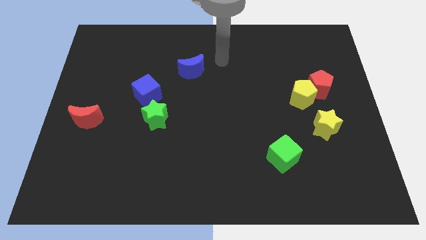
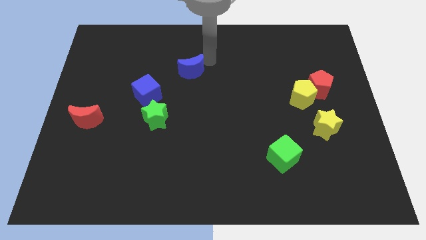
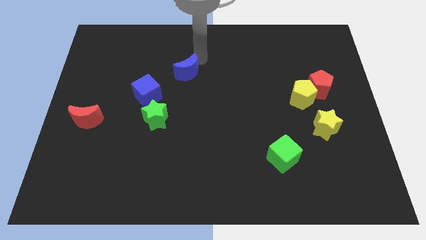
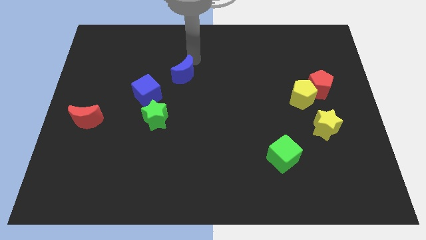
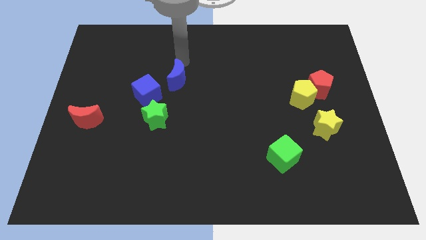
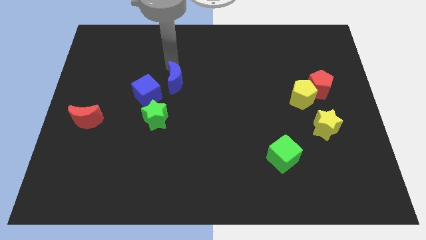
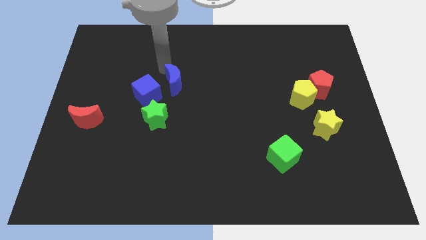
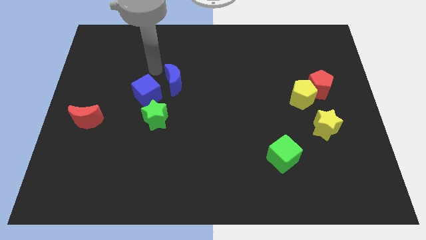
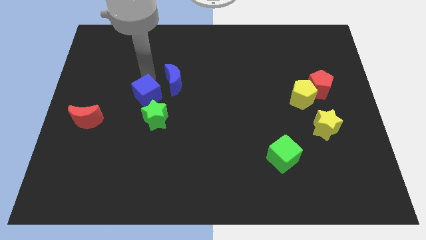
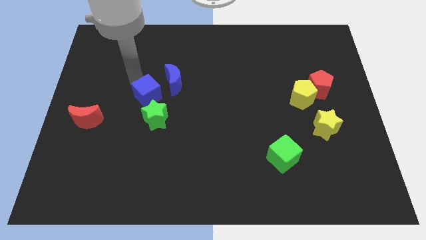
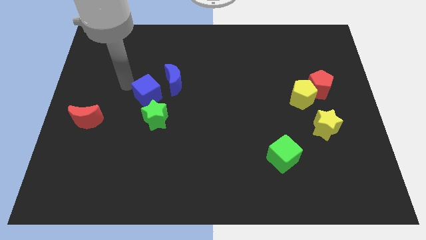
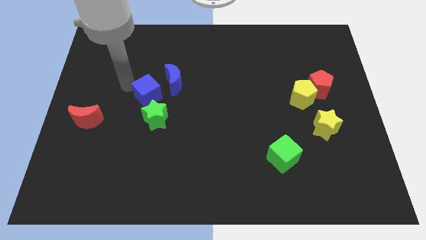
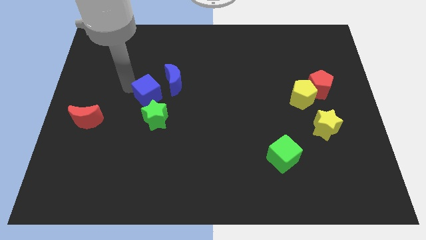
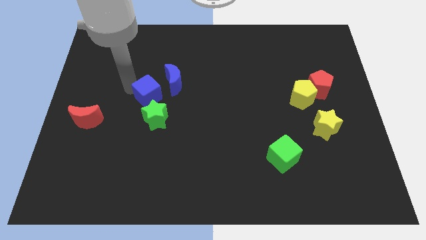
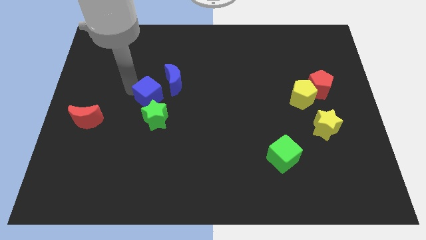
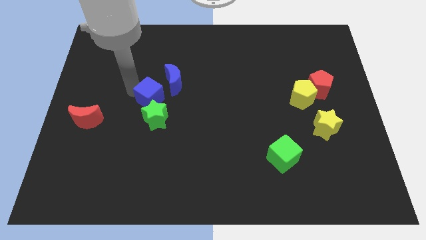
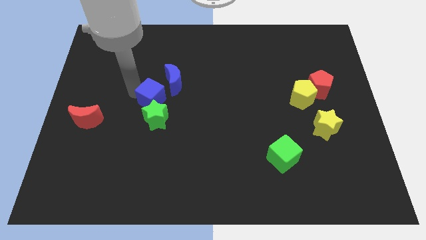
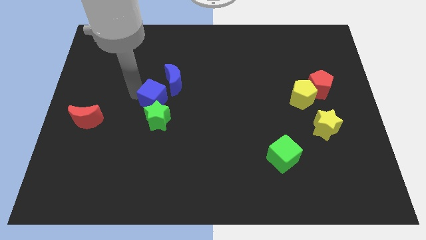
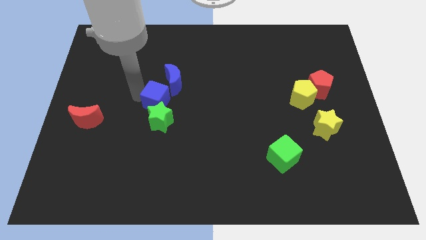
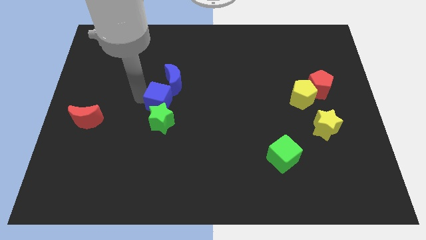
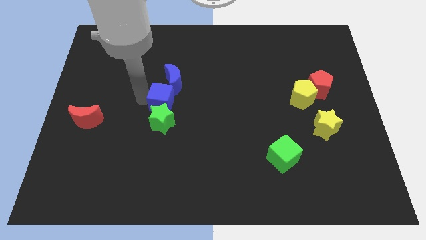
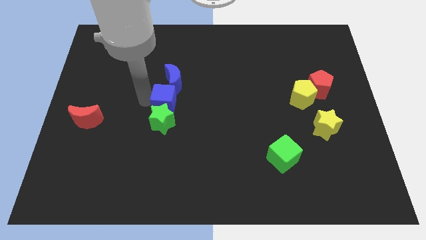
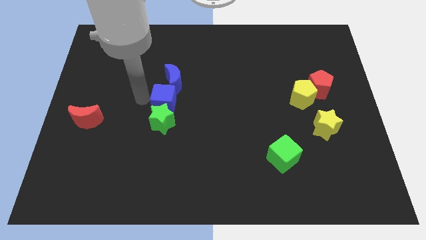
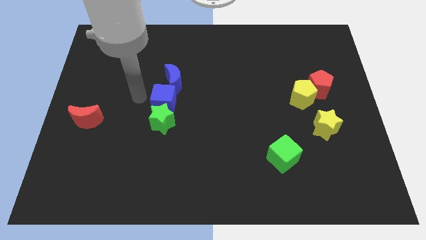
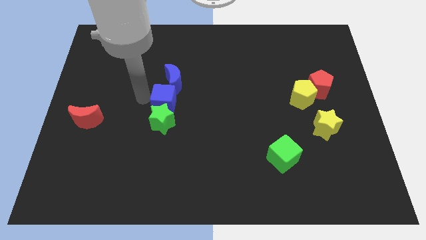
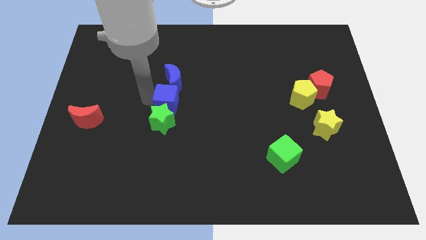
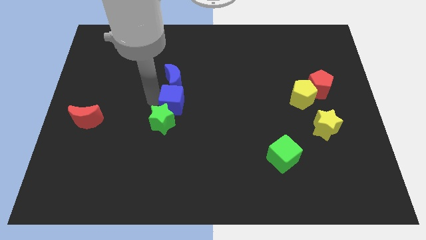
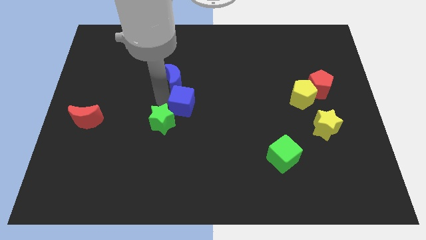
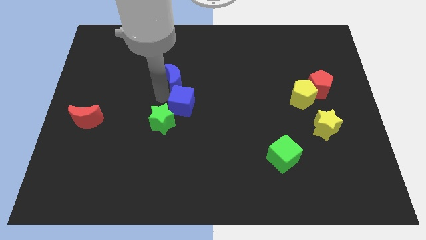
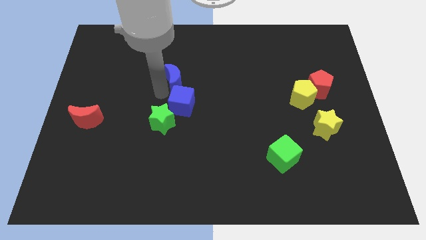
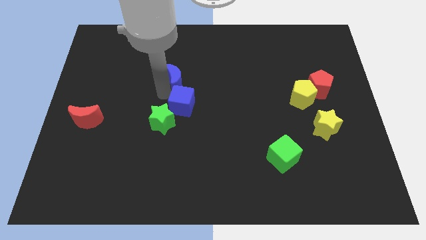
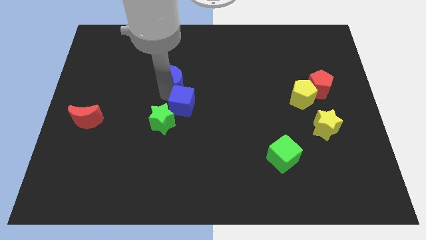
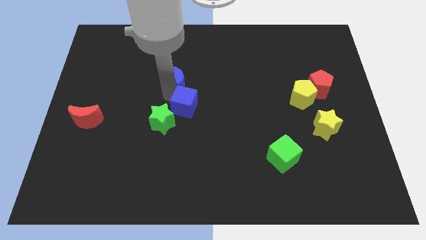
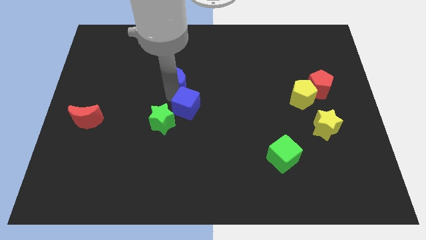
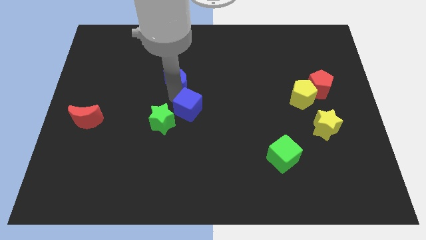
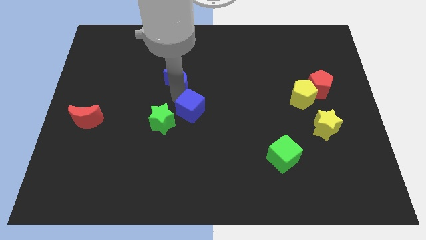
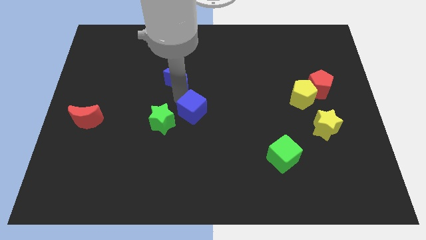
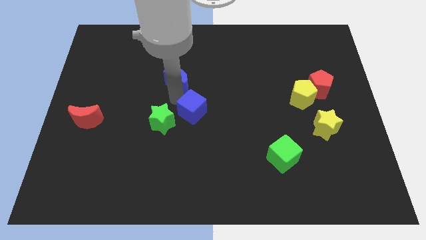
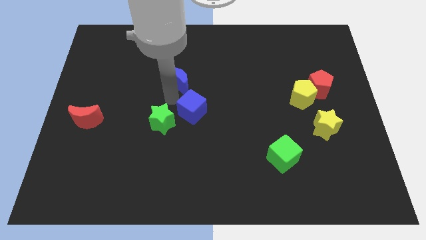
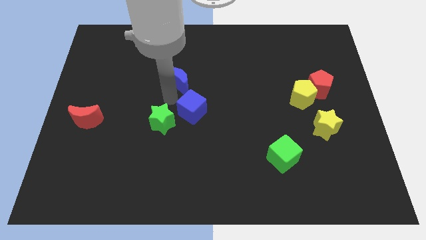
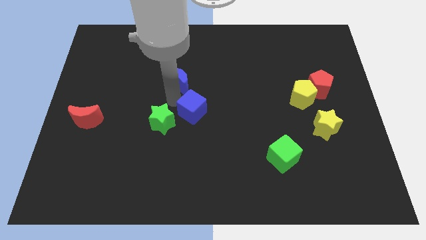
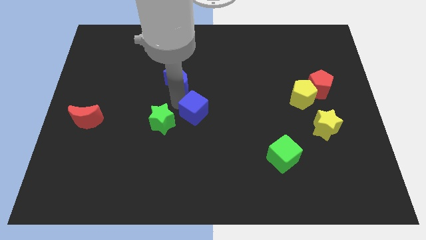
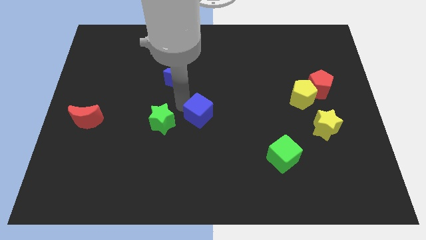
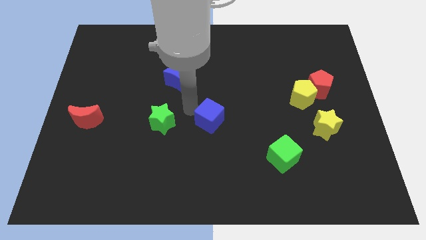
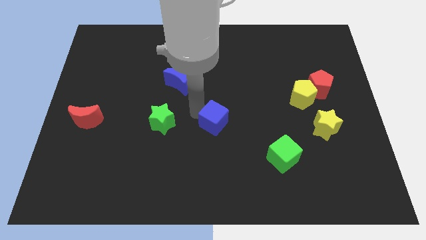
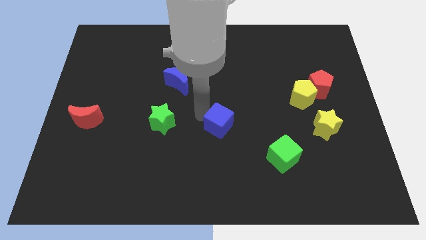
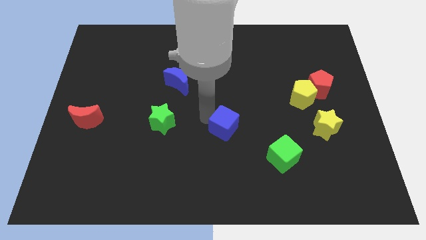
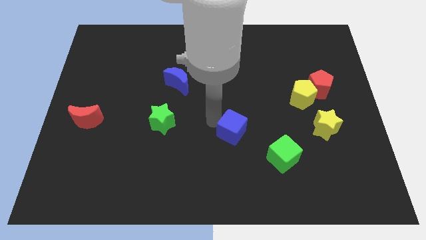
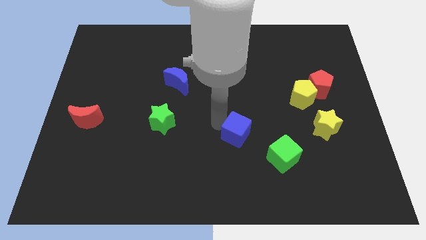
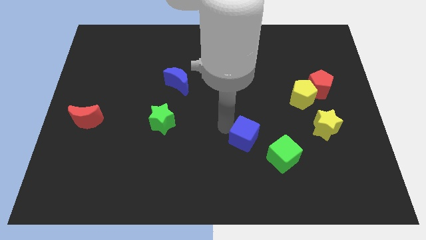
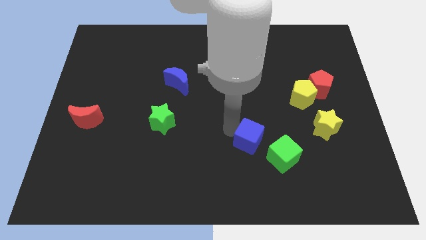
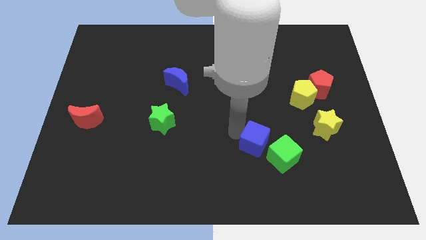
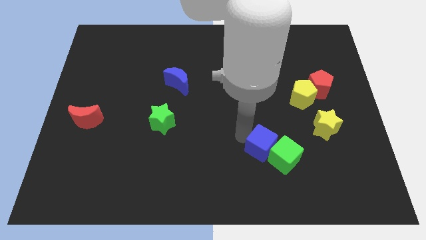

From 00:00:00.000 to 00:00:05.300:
move the blue cube towards the green cube
